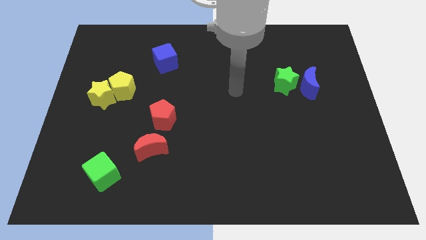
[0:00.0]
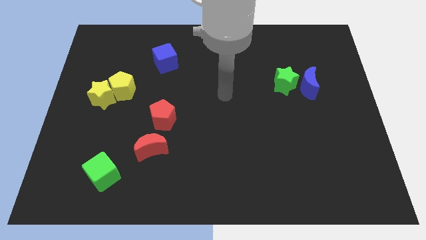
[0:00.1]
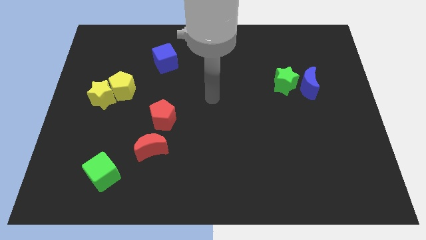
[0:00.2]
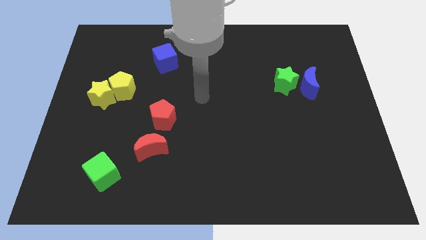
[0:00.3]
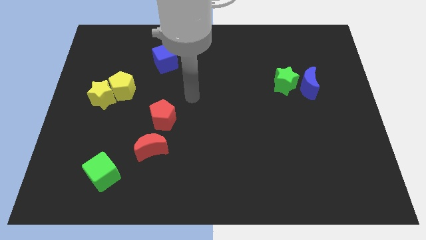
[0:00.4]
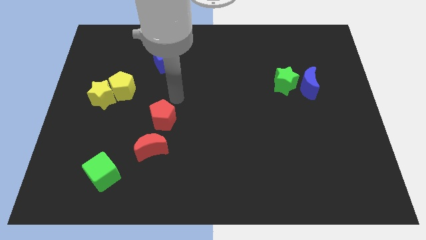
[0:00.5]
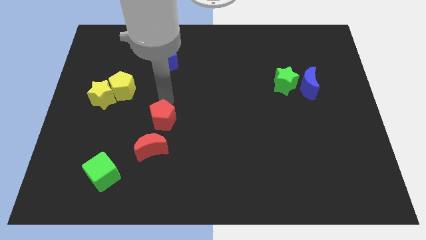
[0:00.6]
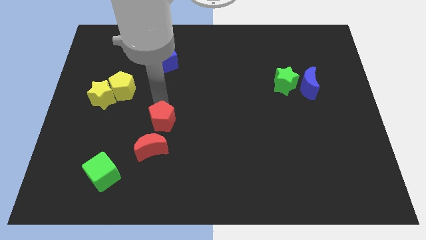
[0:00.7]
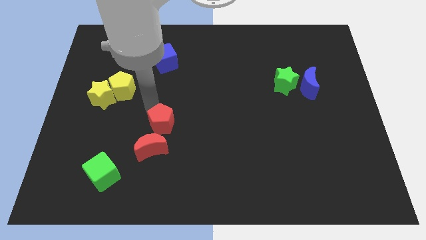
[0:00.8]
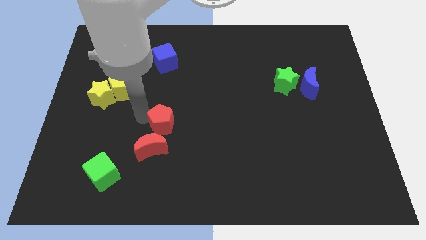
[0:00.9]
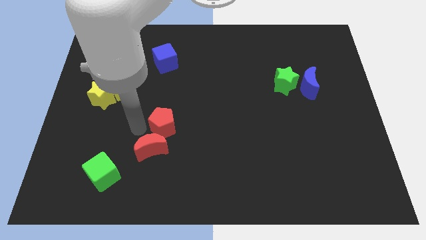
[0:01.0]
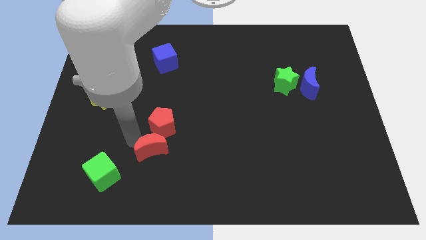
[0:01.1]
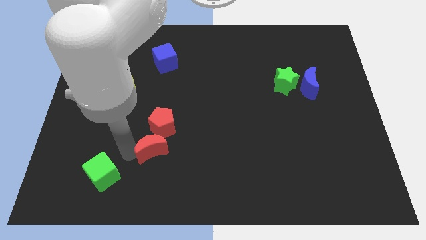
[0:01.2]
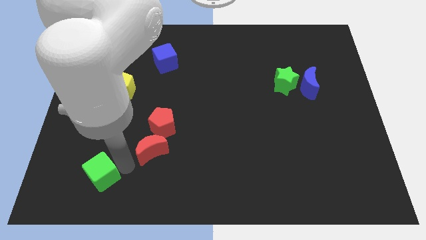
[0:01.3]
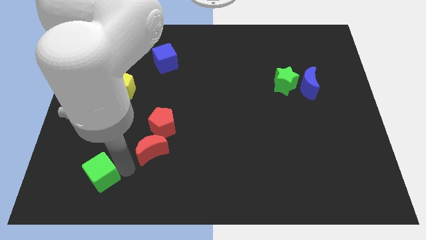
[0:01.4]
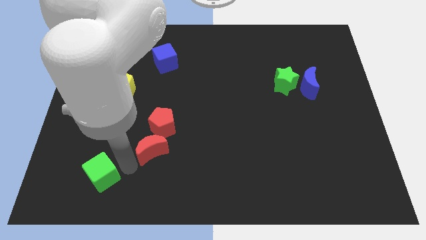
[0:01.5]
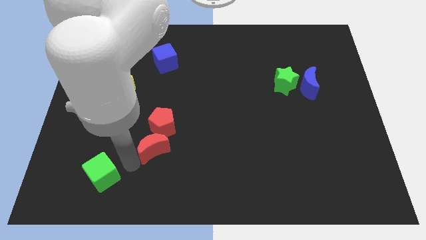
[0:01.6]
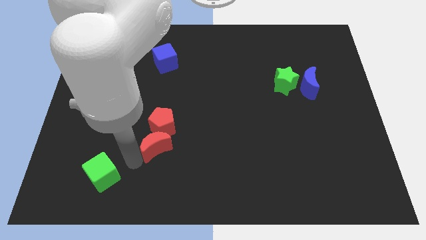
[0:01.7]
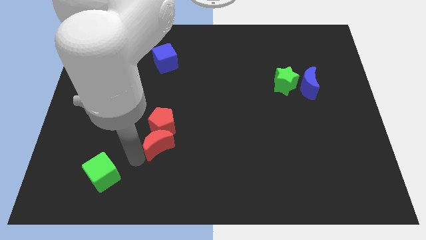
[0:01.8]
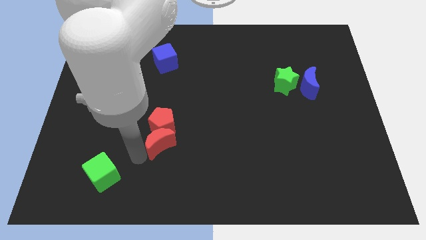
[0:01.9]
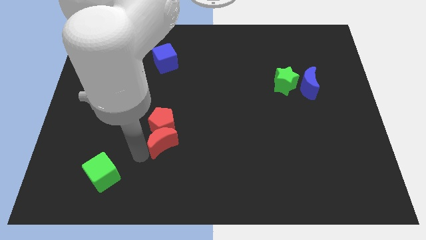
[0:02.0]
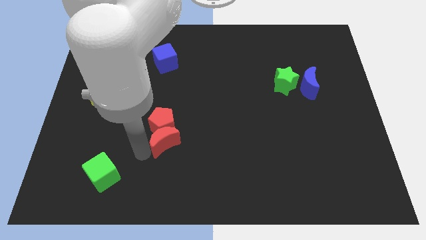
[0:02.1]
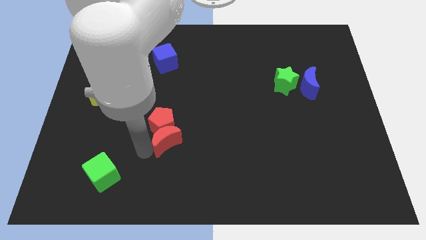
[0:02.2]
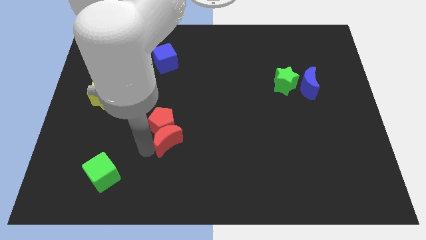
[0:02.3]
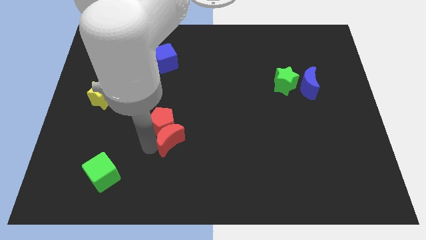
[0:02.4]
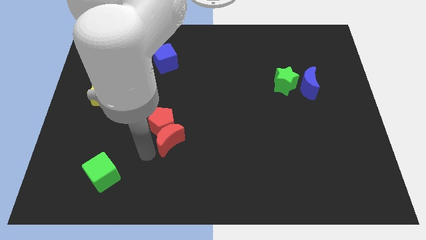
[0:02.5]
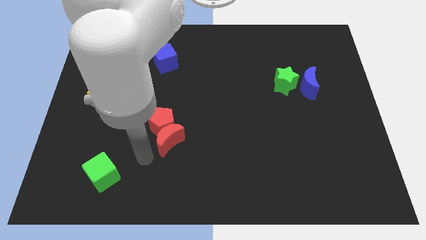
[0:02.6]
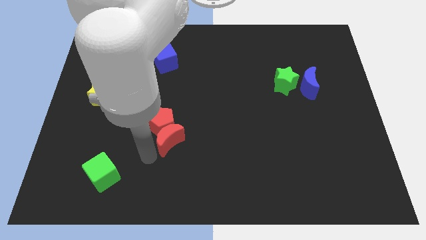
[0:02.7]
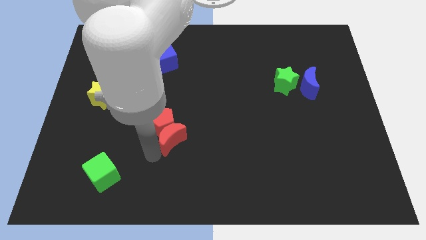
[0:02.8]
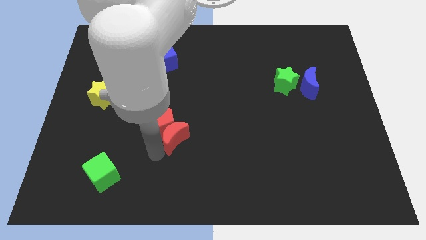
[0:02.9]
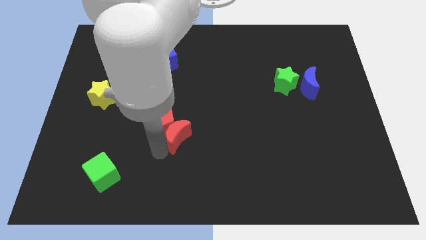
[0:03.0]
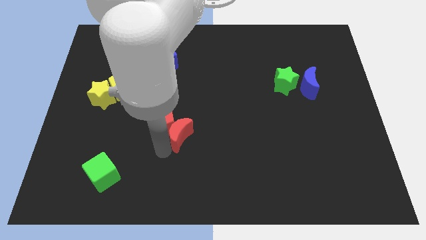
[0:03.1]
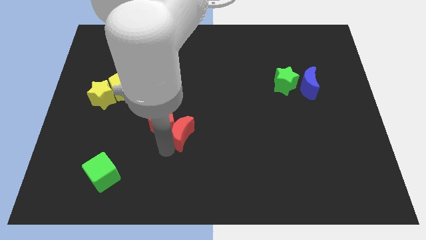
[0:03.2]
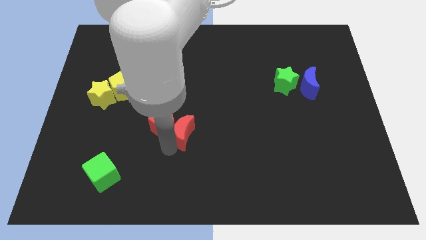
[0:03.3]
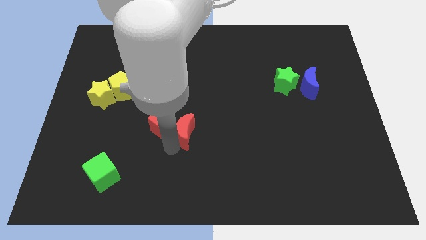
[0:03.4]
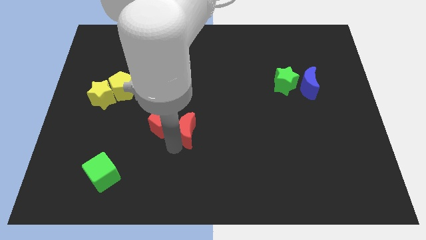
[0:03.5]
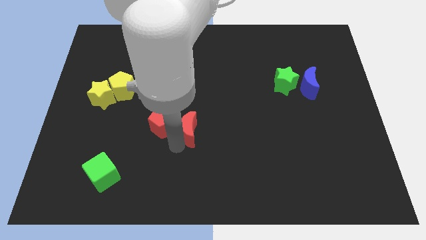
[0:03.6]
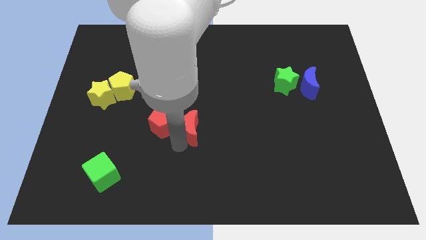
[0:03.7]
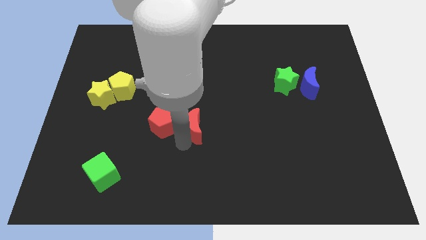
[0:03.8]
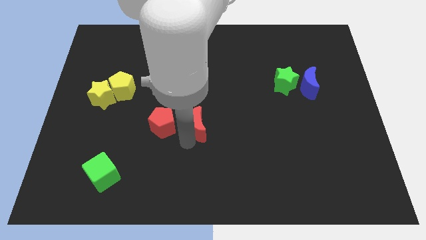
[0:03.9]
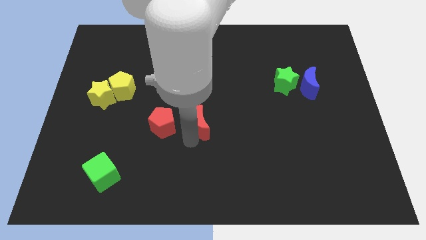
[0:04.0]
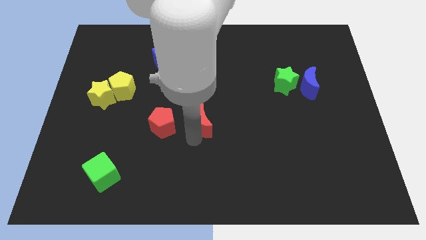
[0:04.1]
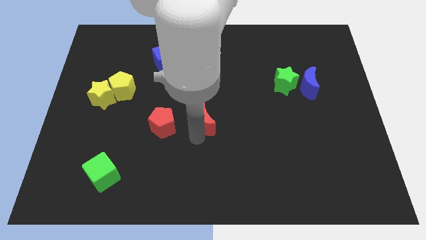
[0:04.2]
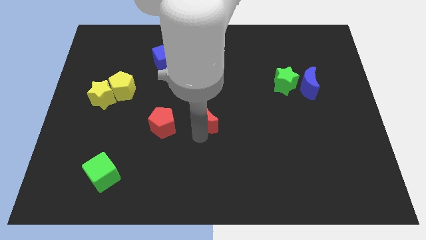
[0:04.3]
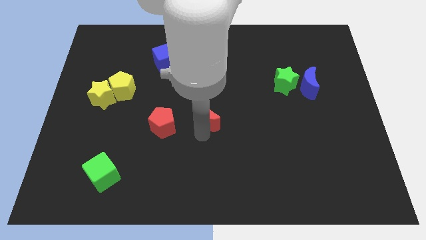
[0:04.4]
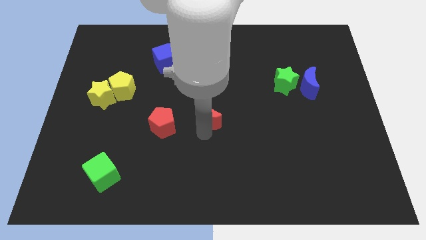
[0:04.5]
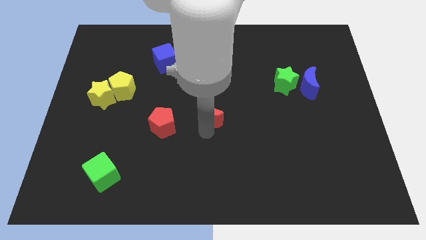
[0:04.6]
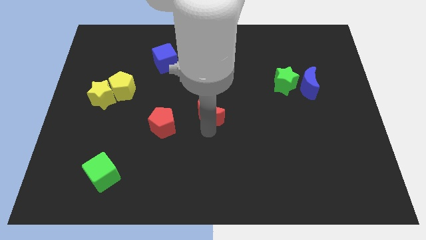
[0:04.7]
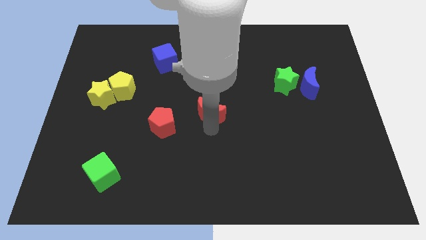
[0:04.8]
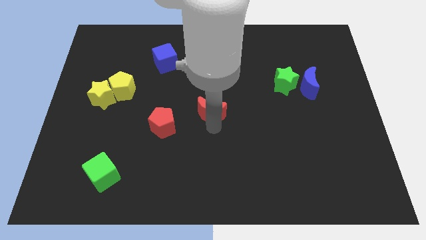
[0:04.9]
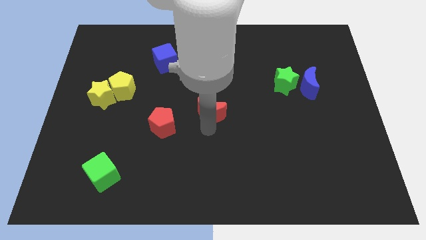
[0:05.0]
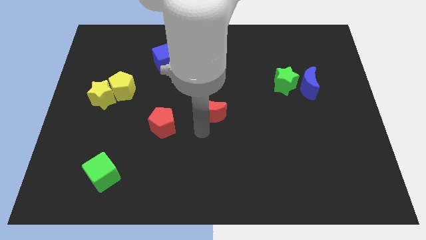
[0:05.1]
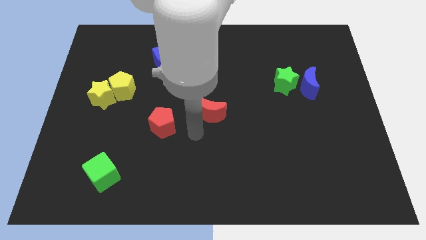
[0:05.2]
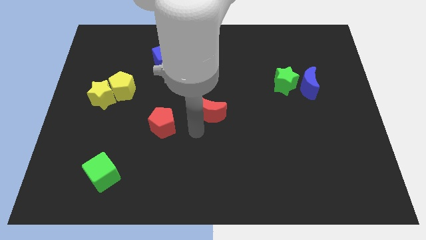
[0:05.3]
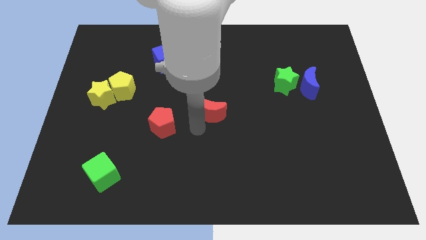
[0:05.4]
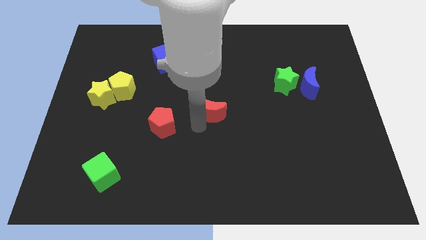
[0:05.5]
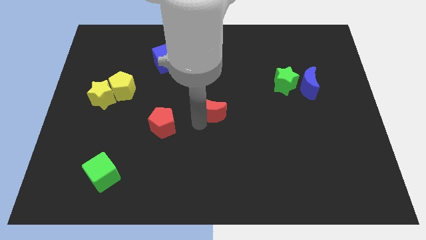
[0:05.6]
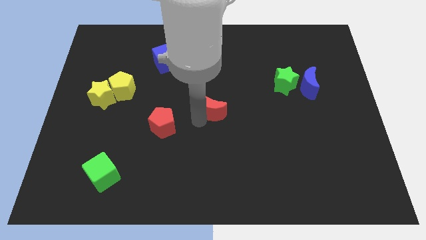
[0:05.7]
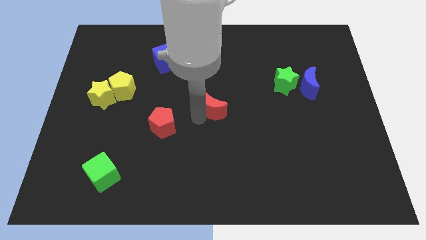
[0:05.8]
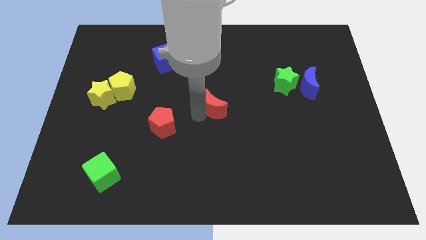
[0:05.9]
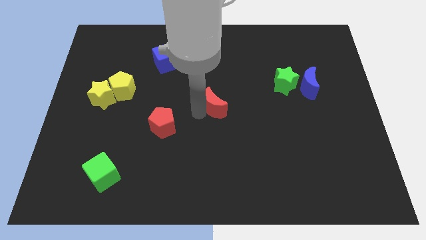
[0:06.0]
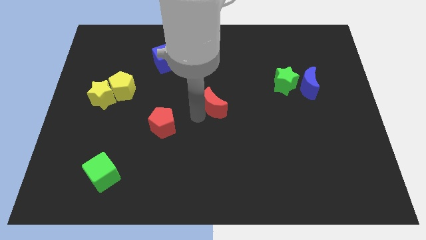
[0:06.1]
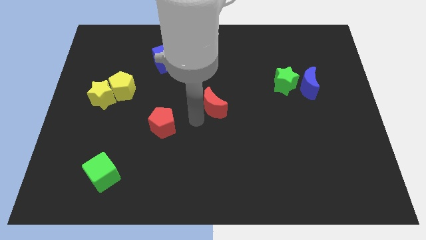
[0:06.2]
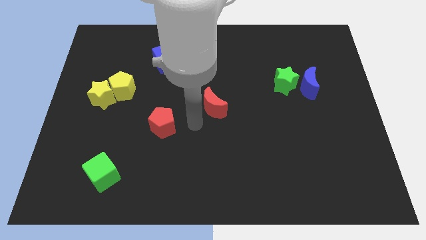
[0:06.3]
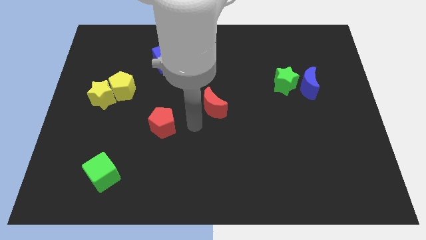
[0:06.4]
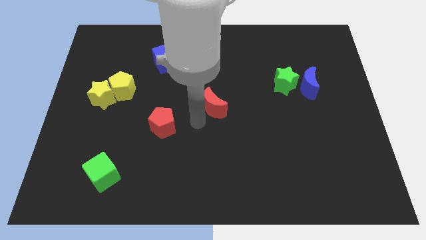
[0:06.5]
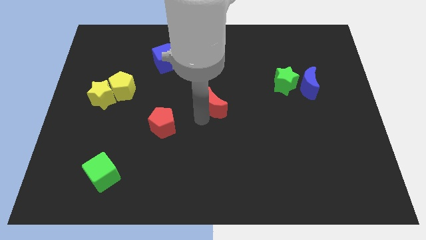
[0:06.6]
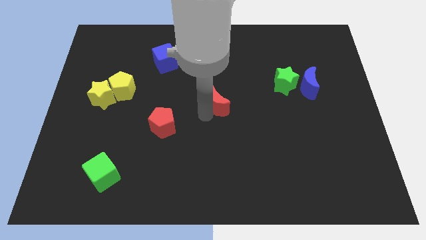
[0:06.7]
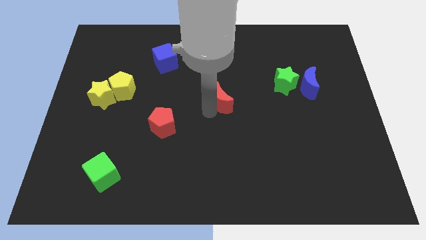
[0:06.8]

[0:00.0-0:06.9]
move the red moon upwards and to the right diagonally

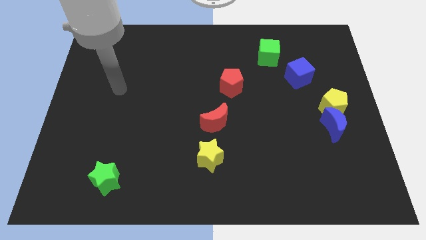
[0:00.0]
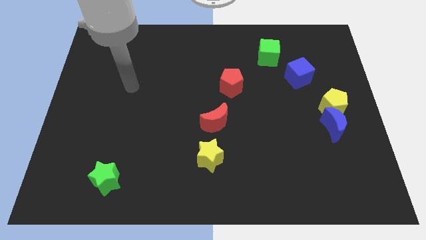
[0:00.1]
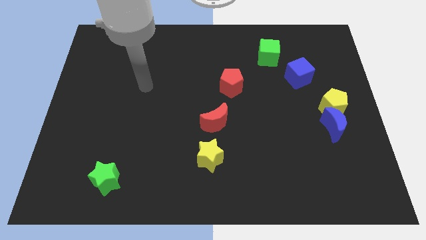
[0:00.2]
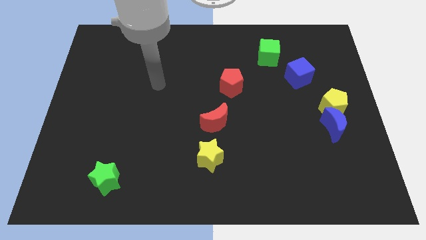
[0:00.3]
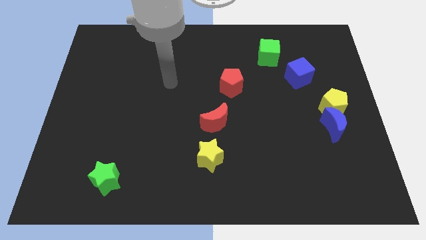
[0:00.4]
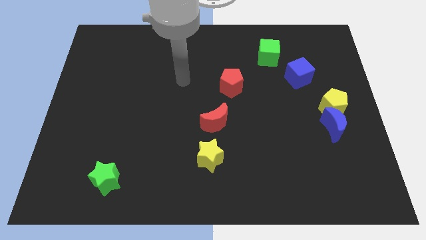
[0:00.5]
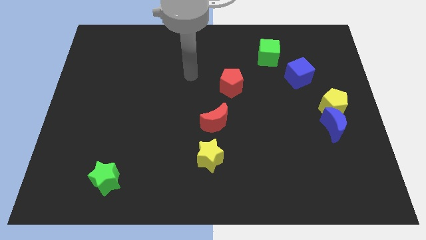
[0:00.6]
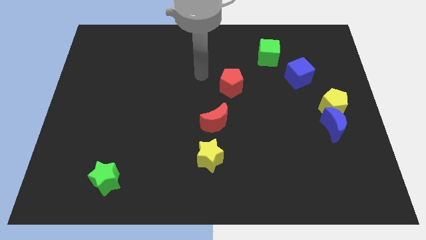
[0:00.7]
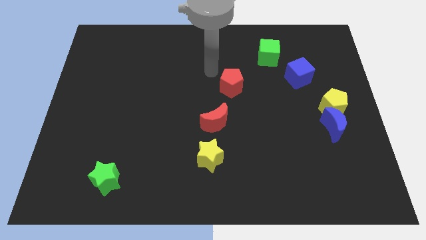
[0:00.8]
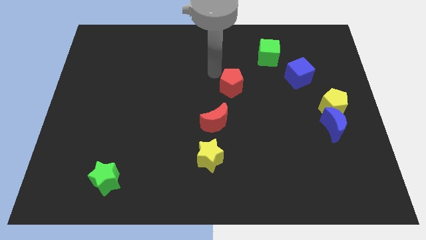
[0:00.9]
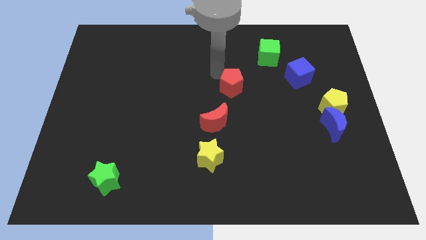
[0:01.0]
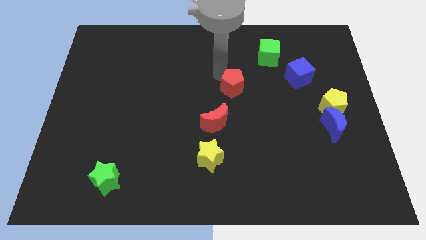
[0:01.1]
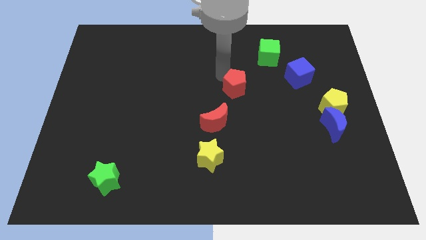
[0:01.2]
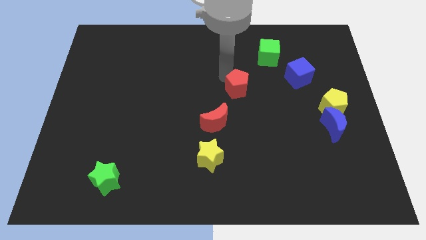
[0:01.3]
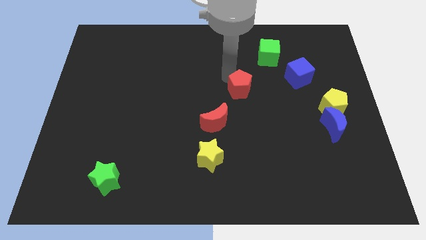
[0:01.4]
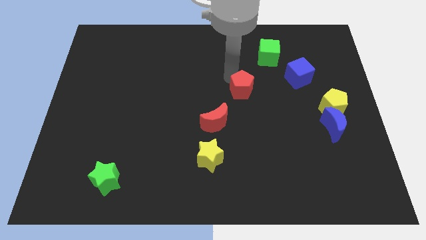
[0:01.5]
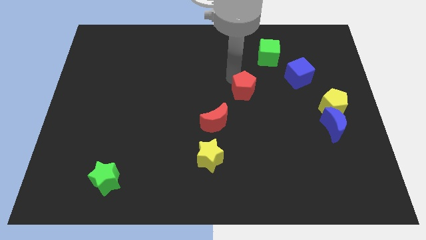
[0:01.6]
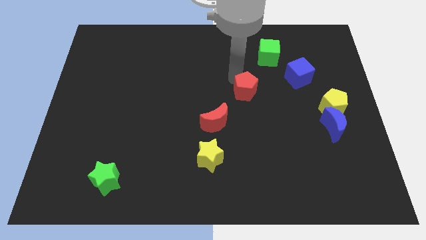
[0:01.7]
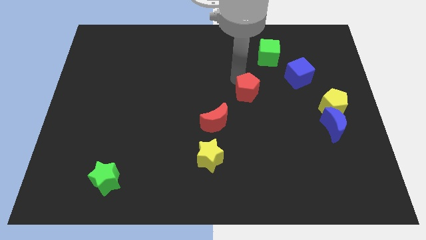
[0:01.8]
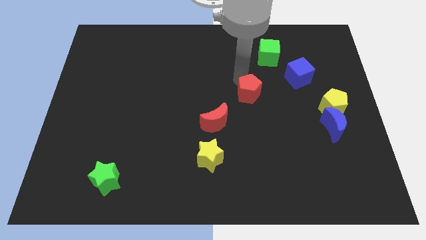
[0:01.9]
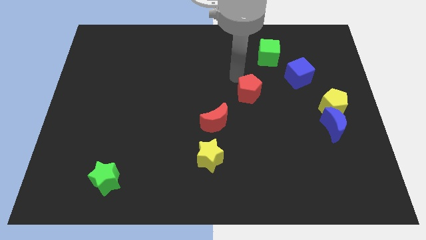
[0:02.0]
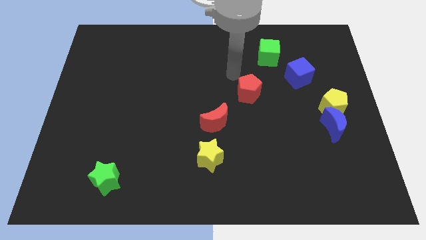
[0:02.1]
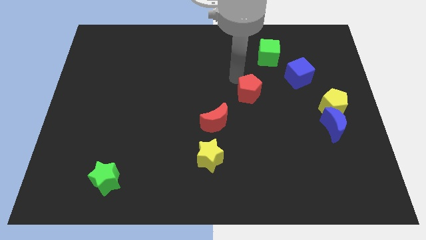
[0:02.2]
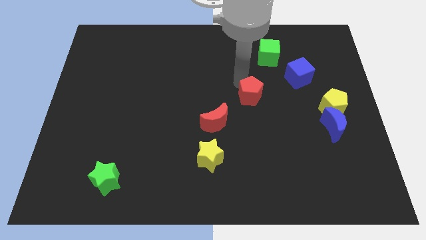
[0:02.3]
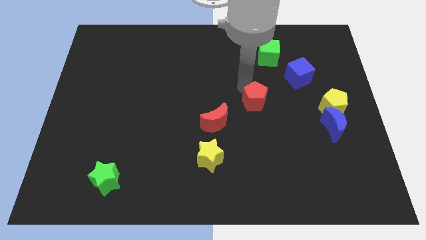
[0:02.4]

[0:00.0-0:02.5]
slightly move the red pentagon downwards and then to the right
